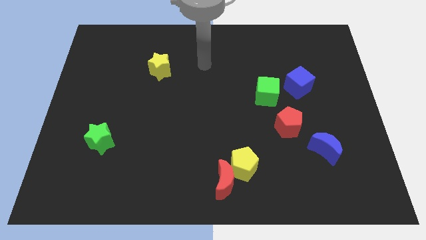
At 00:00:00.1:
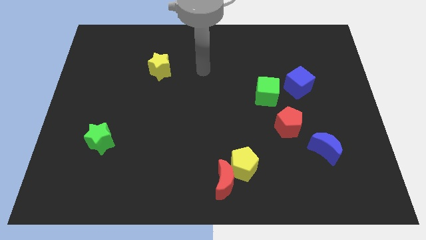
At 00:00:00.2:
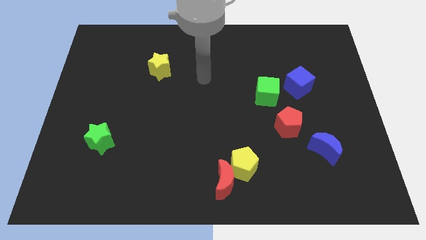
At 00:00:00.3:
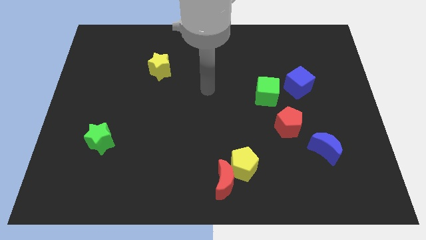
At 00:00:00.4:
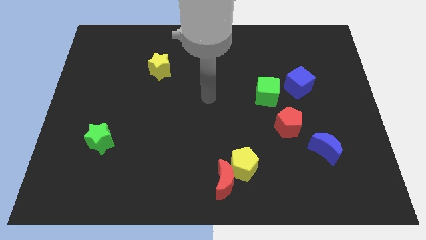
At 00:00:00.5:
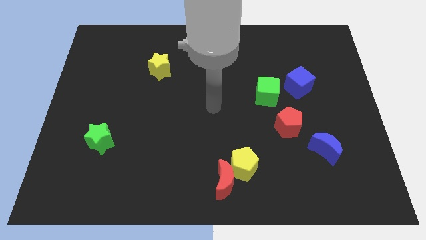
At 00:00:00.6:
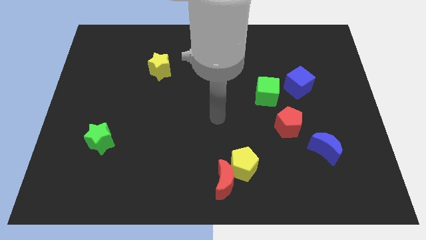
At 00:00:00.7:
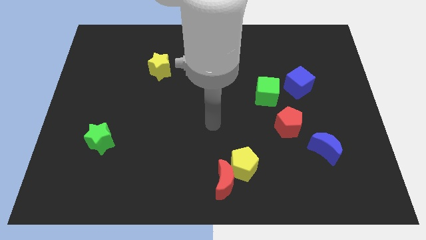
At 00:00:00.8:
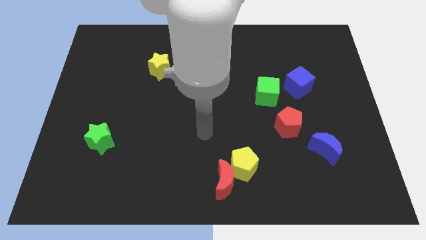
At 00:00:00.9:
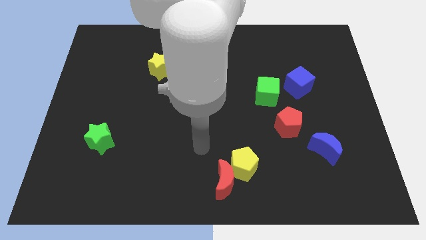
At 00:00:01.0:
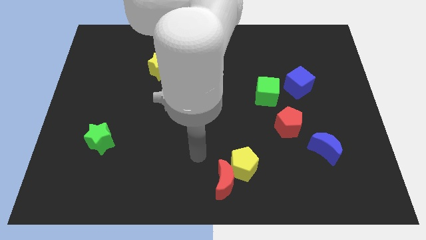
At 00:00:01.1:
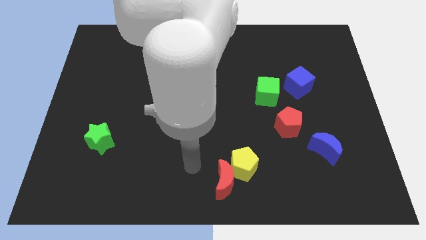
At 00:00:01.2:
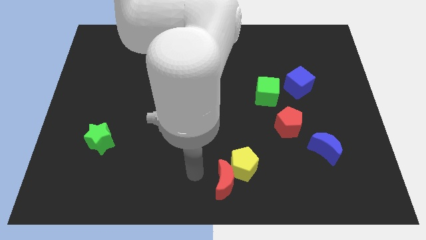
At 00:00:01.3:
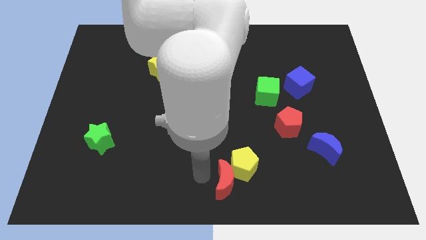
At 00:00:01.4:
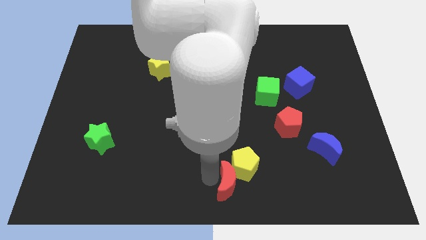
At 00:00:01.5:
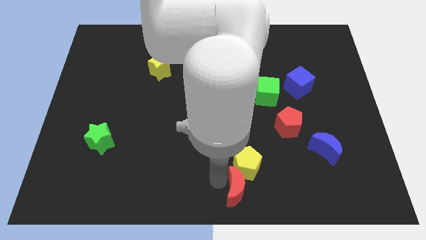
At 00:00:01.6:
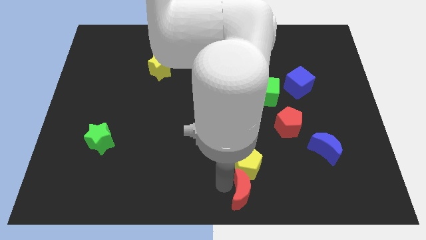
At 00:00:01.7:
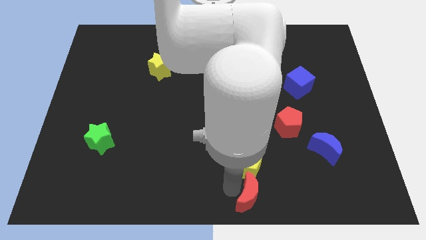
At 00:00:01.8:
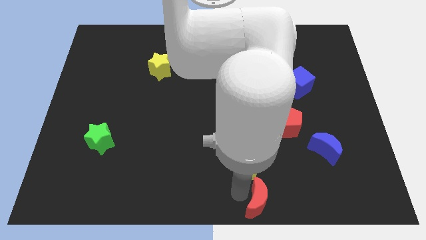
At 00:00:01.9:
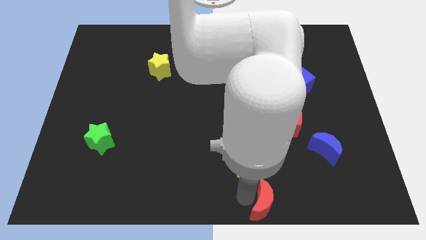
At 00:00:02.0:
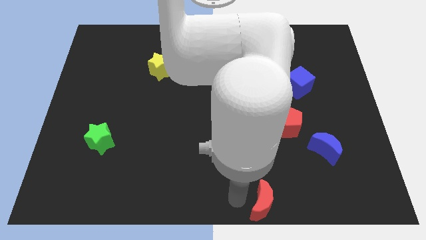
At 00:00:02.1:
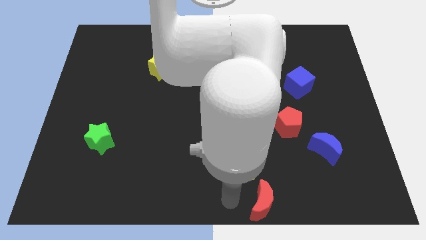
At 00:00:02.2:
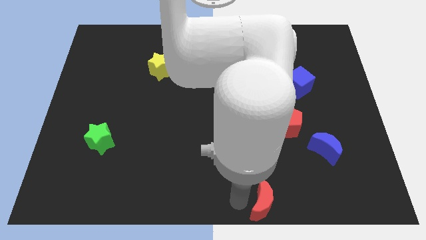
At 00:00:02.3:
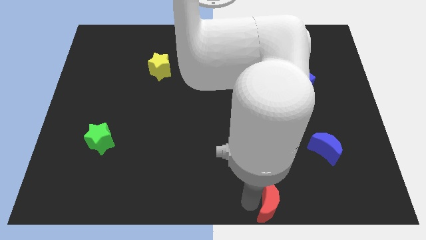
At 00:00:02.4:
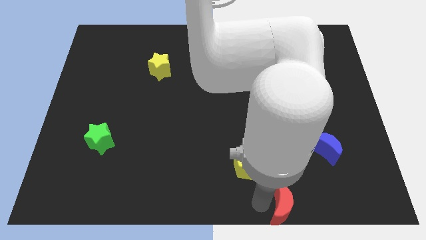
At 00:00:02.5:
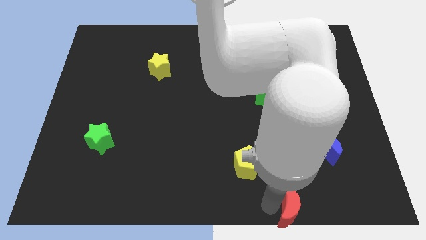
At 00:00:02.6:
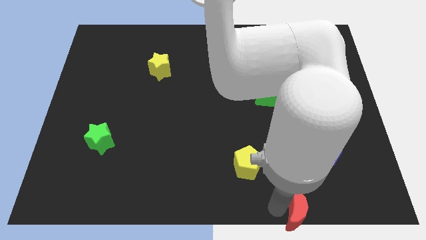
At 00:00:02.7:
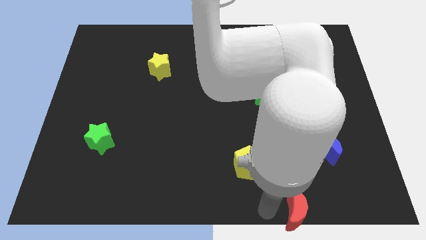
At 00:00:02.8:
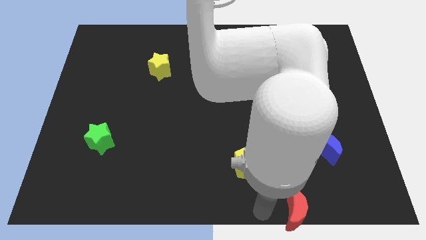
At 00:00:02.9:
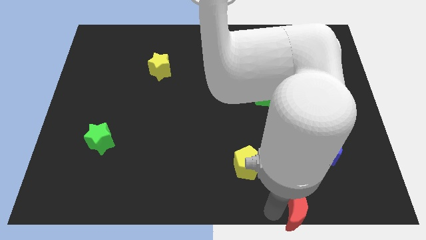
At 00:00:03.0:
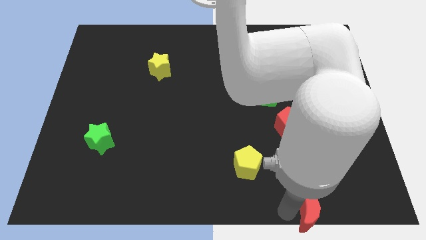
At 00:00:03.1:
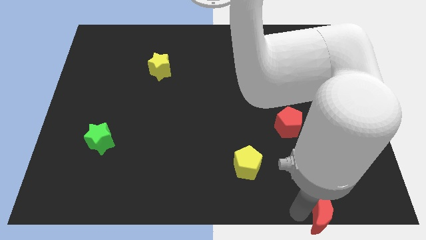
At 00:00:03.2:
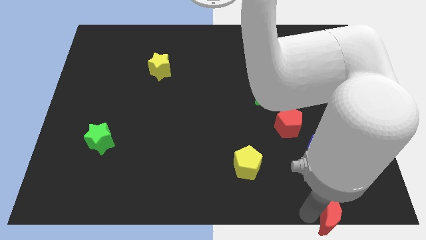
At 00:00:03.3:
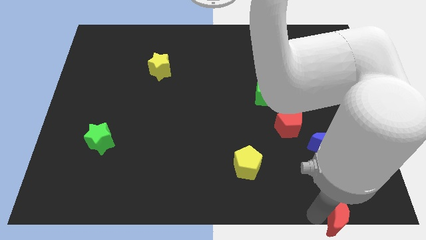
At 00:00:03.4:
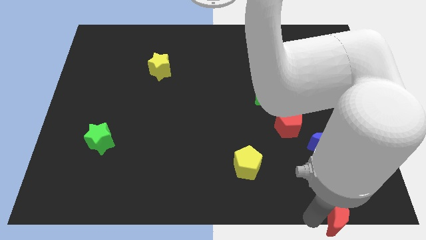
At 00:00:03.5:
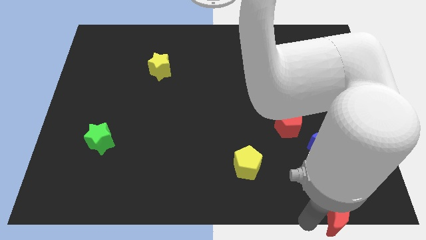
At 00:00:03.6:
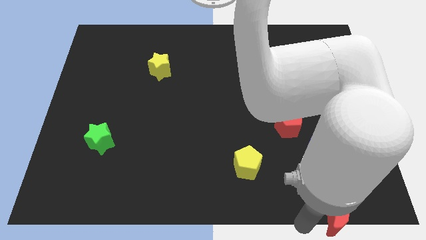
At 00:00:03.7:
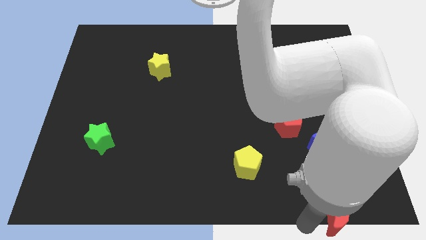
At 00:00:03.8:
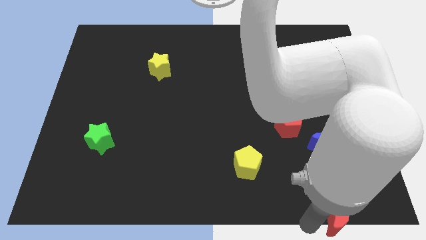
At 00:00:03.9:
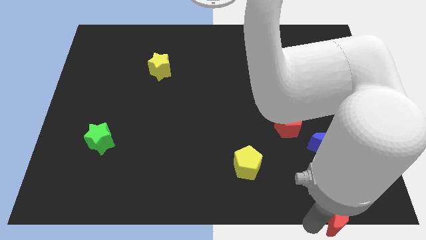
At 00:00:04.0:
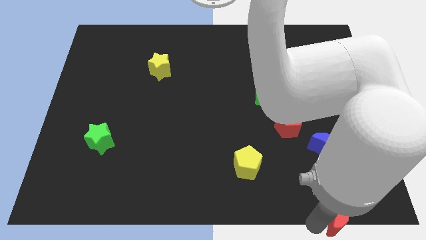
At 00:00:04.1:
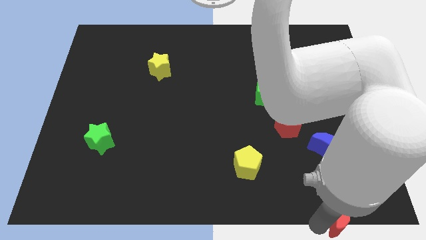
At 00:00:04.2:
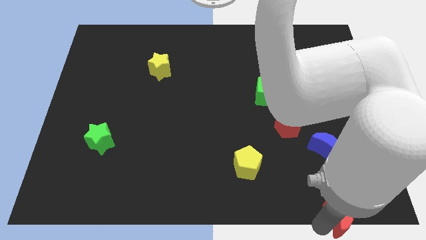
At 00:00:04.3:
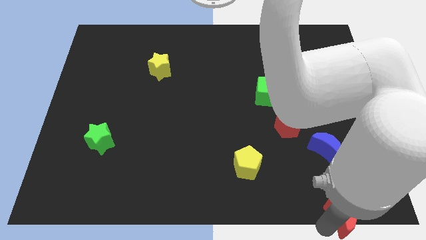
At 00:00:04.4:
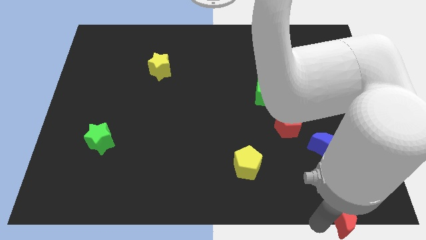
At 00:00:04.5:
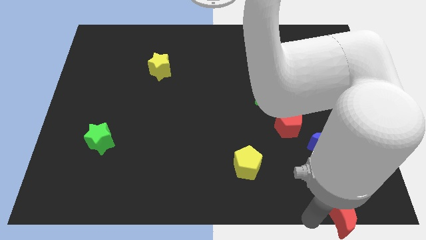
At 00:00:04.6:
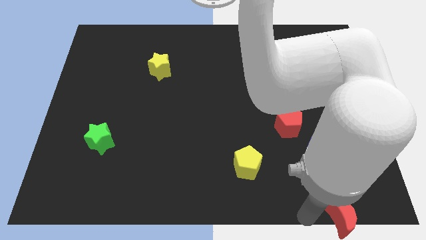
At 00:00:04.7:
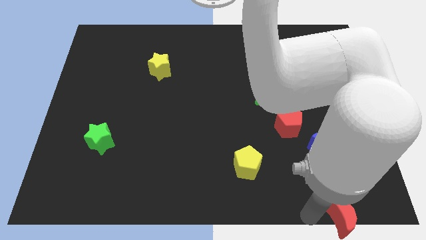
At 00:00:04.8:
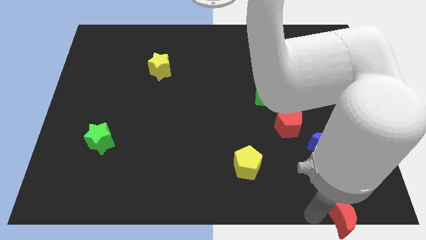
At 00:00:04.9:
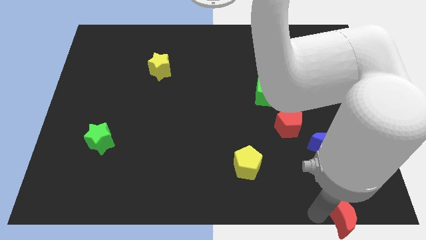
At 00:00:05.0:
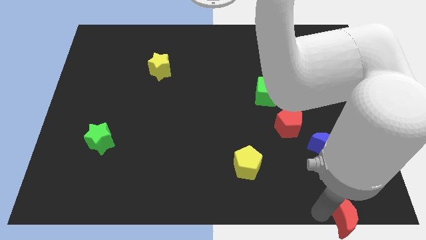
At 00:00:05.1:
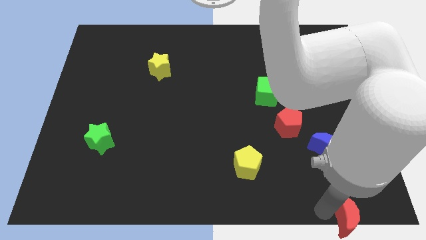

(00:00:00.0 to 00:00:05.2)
push the red moon to the lower right corner

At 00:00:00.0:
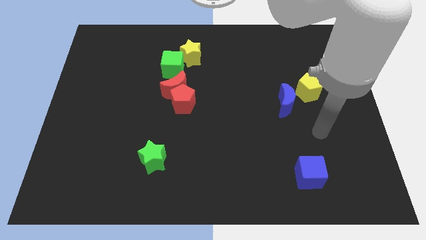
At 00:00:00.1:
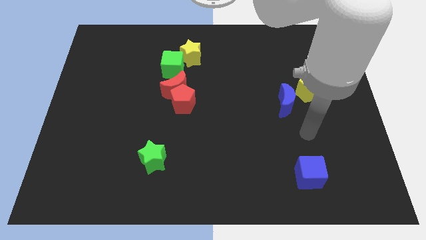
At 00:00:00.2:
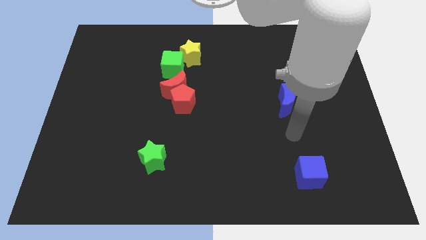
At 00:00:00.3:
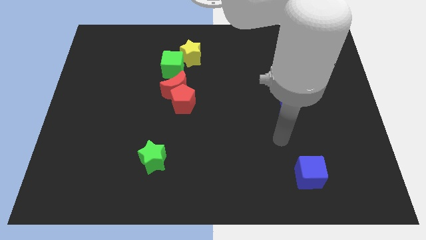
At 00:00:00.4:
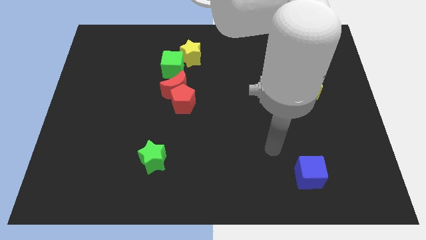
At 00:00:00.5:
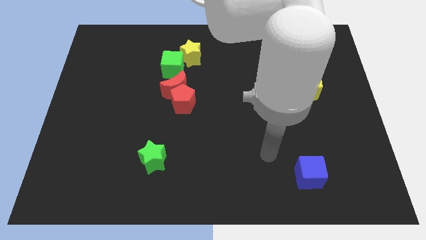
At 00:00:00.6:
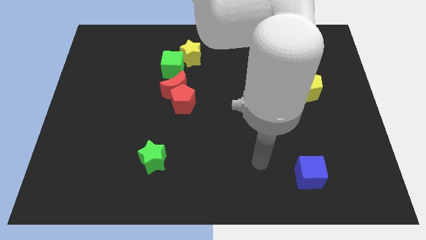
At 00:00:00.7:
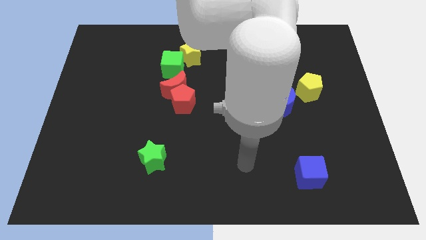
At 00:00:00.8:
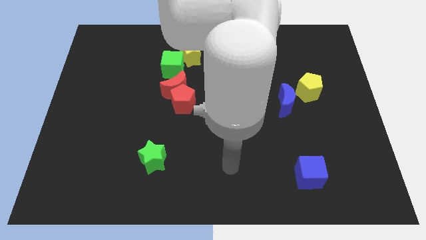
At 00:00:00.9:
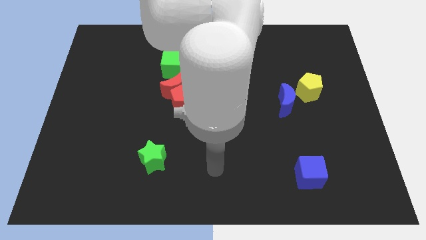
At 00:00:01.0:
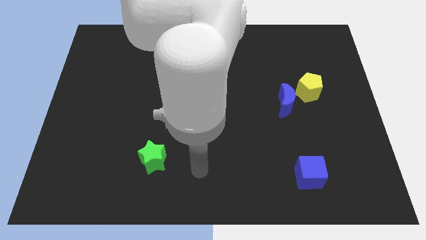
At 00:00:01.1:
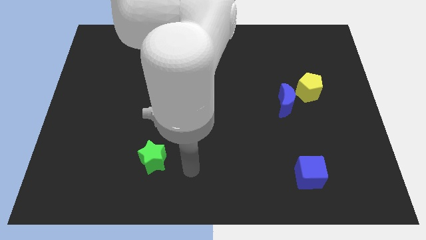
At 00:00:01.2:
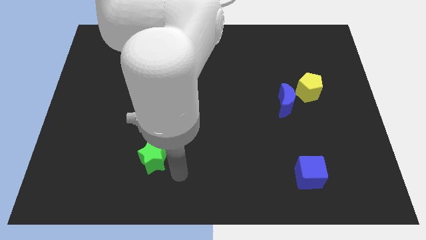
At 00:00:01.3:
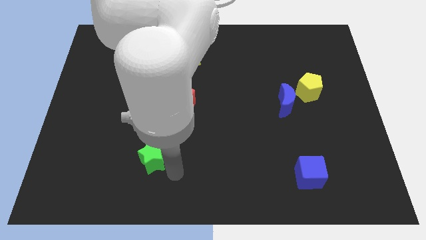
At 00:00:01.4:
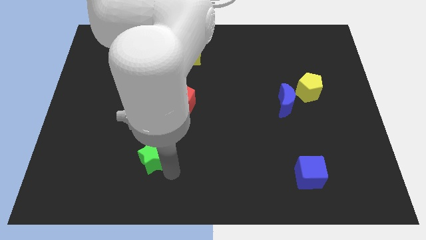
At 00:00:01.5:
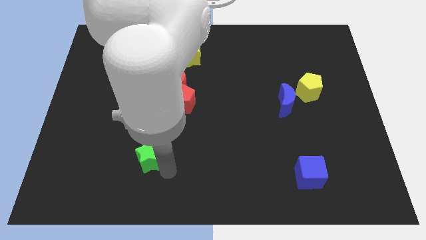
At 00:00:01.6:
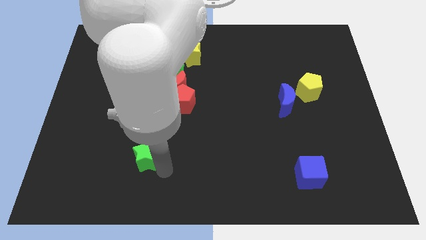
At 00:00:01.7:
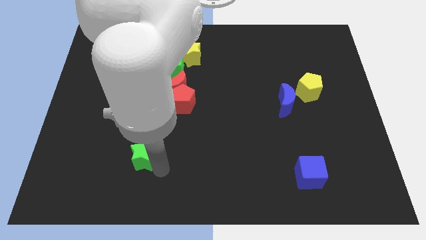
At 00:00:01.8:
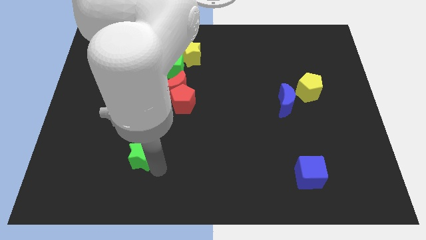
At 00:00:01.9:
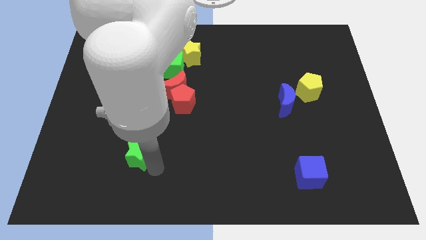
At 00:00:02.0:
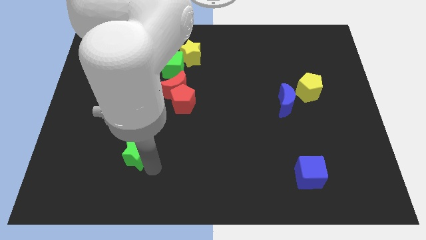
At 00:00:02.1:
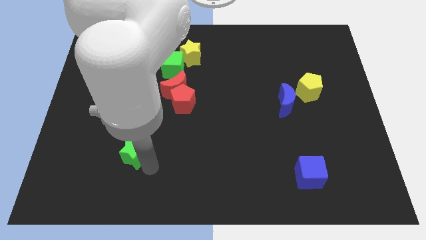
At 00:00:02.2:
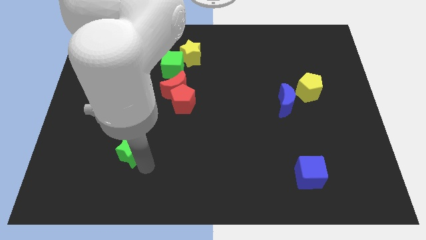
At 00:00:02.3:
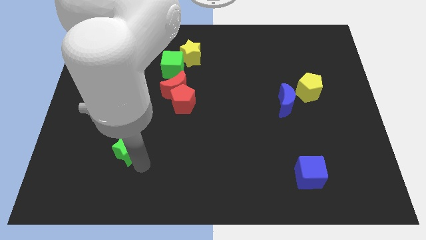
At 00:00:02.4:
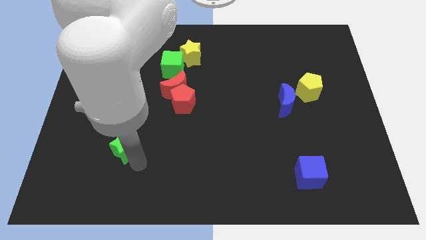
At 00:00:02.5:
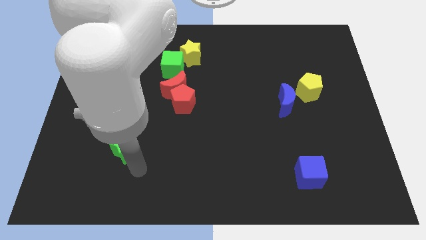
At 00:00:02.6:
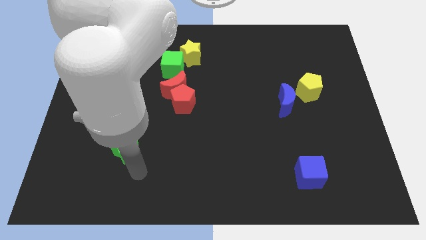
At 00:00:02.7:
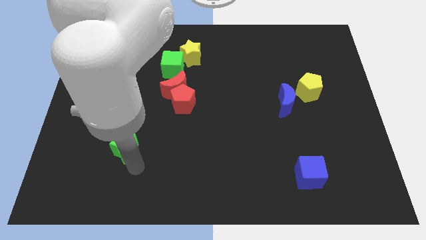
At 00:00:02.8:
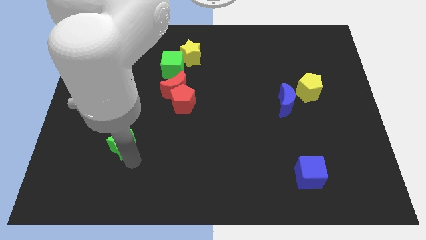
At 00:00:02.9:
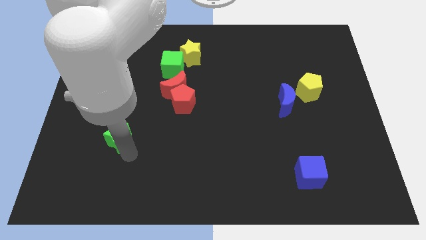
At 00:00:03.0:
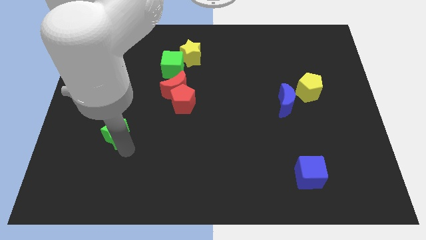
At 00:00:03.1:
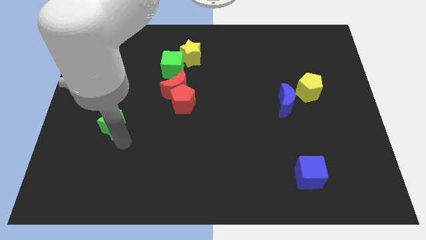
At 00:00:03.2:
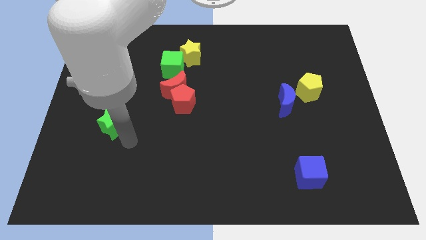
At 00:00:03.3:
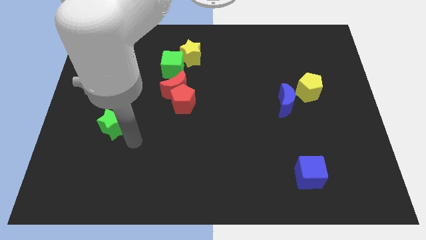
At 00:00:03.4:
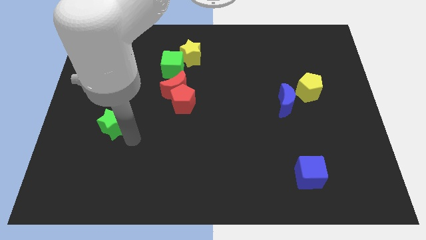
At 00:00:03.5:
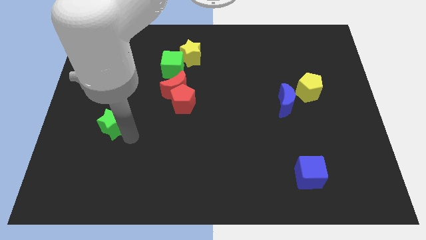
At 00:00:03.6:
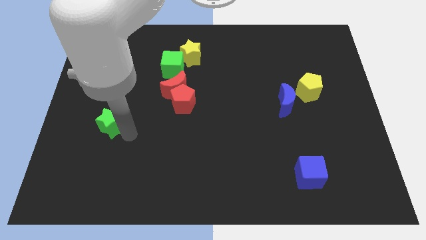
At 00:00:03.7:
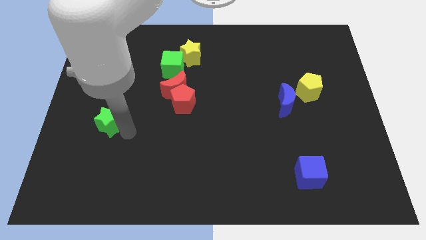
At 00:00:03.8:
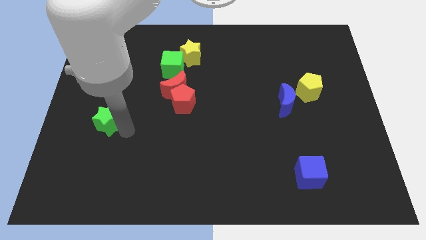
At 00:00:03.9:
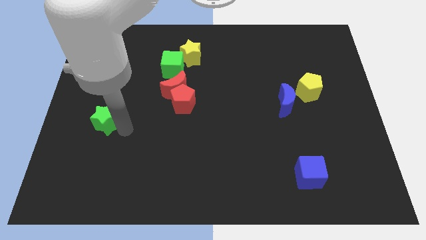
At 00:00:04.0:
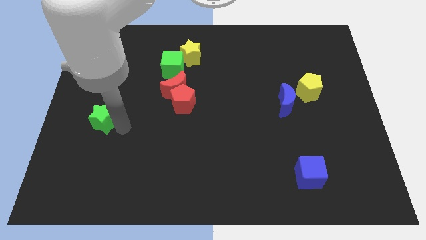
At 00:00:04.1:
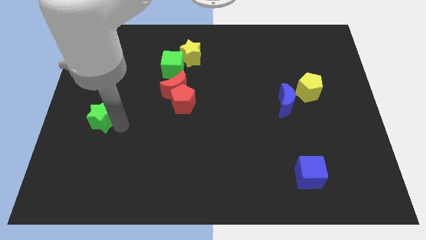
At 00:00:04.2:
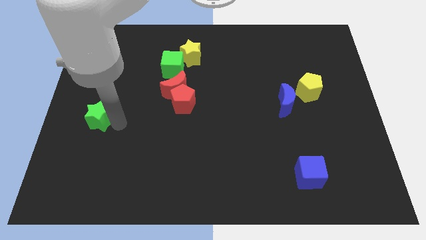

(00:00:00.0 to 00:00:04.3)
slide the green star to the center left
